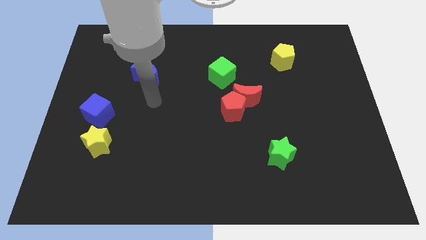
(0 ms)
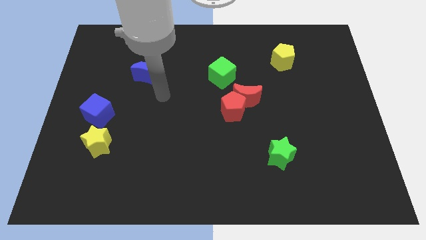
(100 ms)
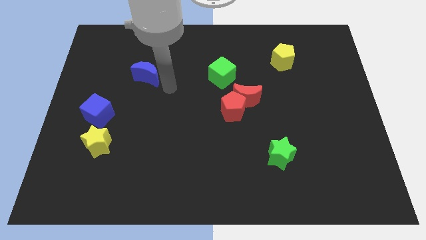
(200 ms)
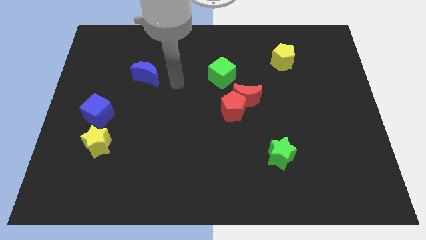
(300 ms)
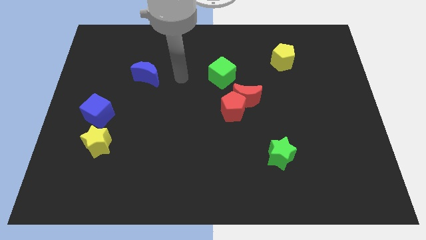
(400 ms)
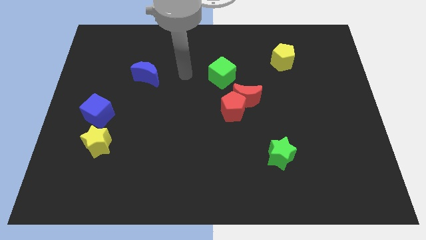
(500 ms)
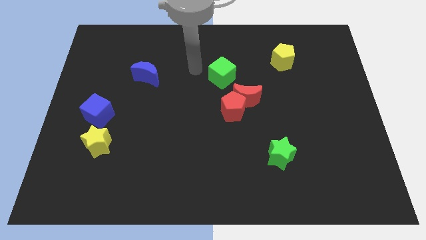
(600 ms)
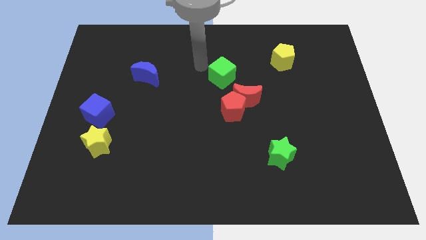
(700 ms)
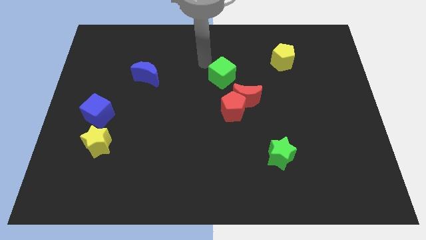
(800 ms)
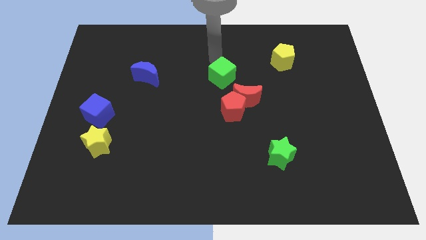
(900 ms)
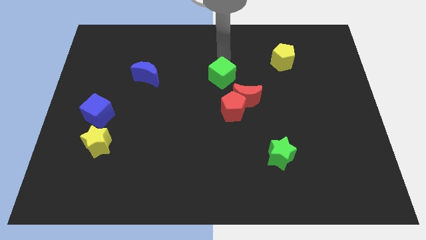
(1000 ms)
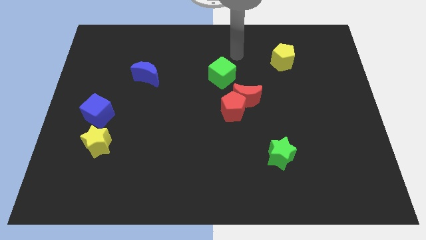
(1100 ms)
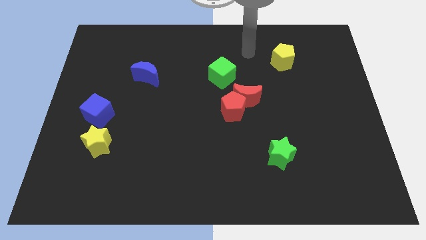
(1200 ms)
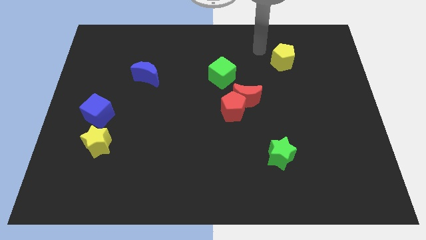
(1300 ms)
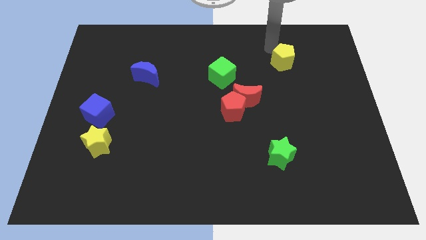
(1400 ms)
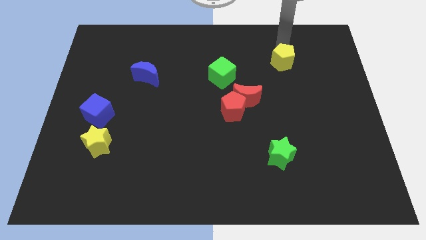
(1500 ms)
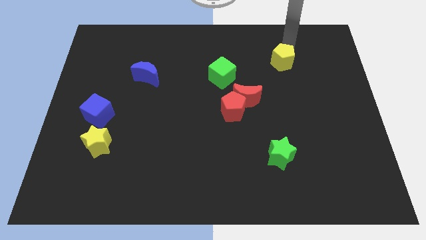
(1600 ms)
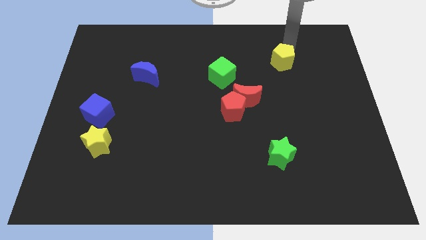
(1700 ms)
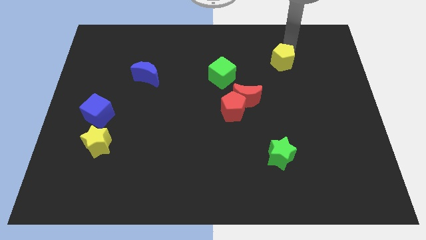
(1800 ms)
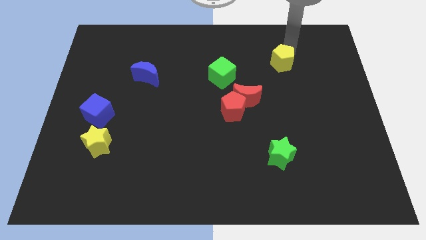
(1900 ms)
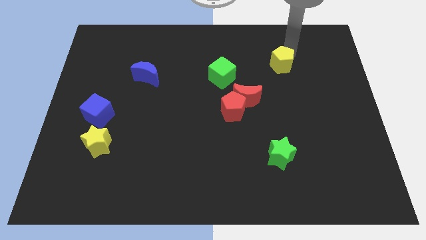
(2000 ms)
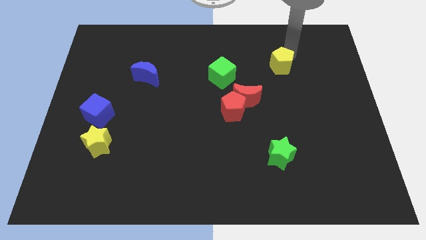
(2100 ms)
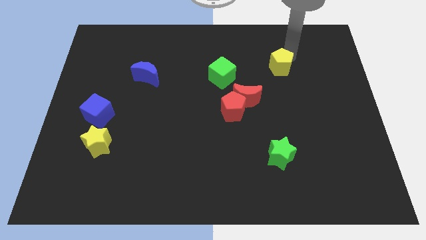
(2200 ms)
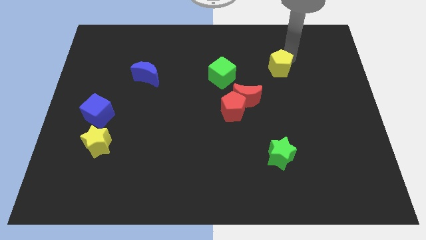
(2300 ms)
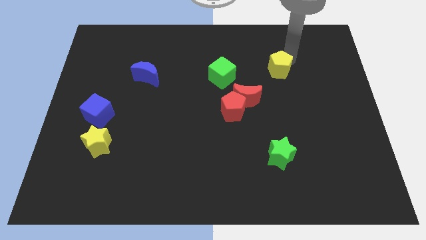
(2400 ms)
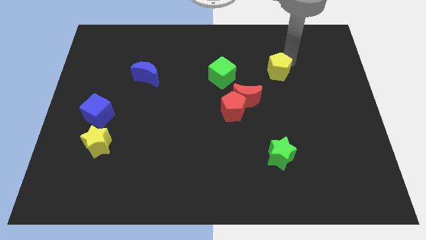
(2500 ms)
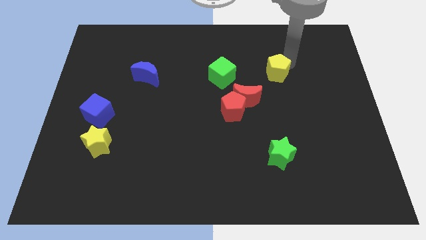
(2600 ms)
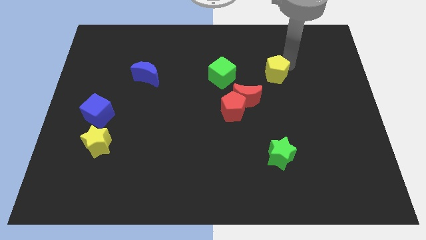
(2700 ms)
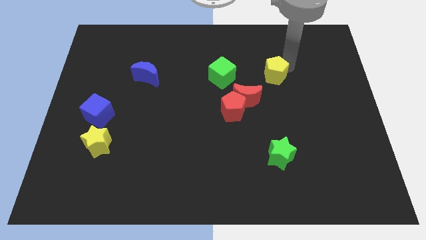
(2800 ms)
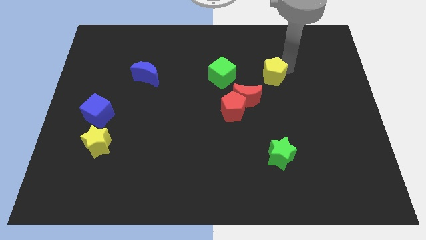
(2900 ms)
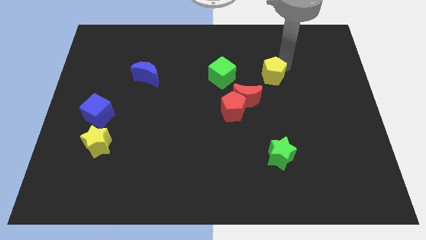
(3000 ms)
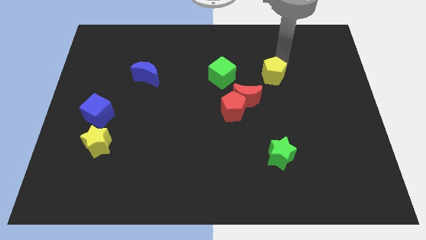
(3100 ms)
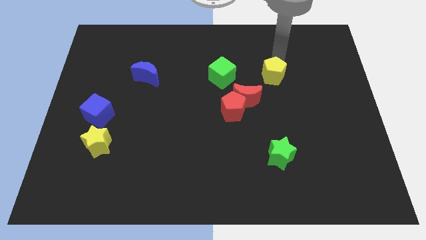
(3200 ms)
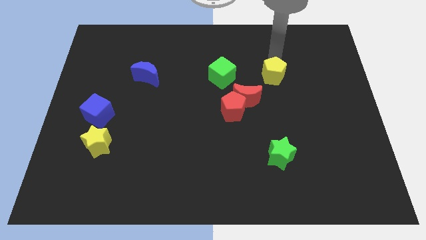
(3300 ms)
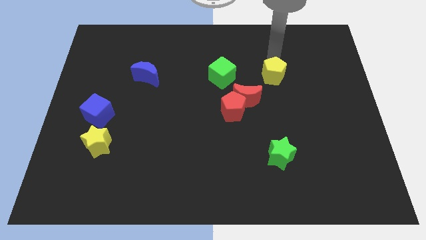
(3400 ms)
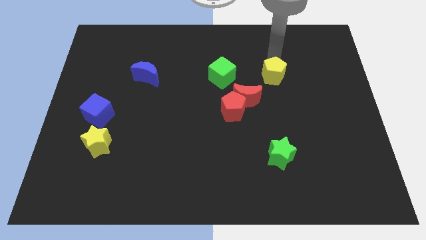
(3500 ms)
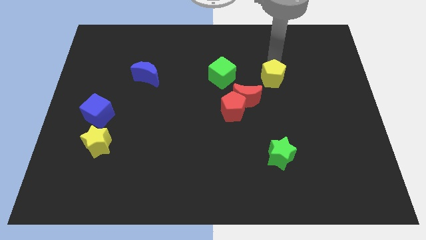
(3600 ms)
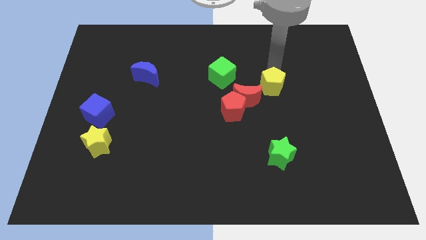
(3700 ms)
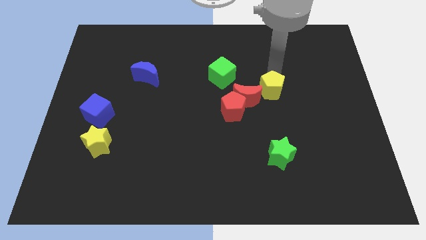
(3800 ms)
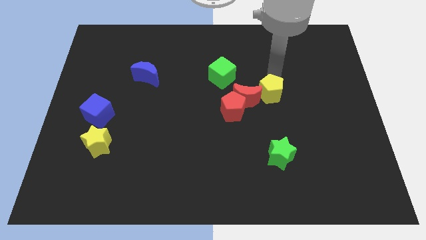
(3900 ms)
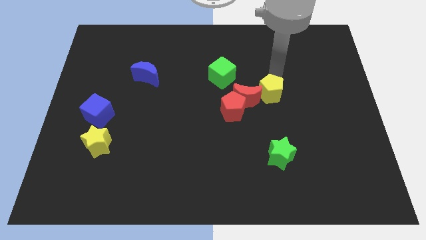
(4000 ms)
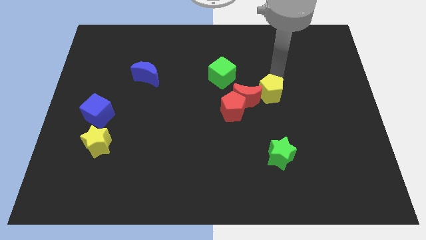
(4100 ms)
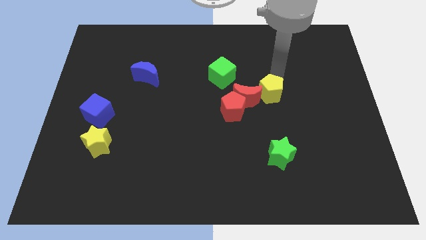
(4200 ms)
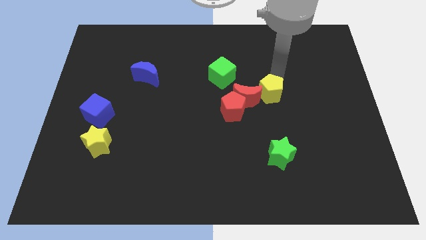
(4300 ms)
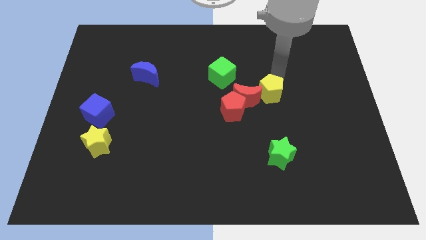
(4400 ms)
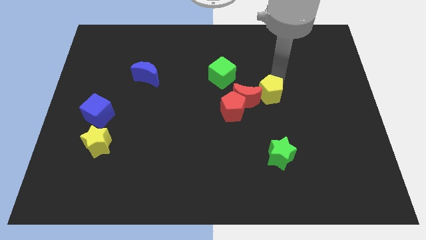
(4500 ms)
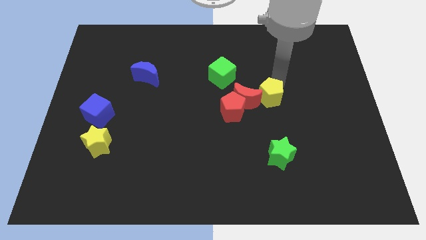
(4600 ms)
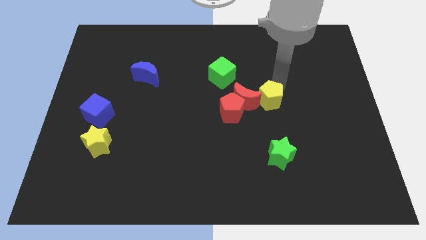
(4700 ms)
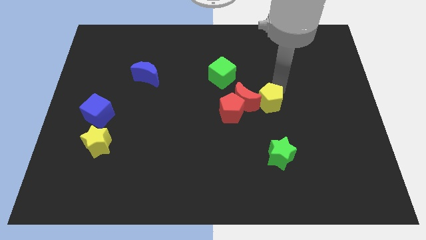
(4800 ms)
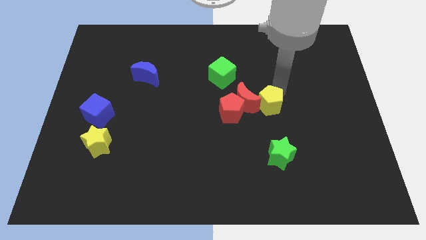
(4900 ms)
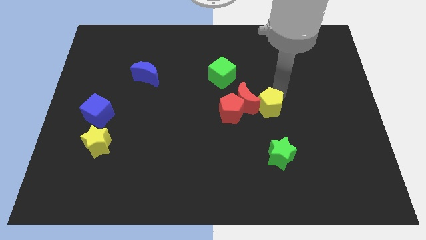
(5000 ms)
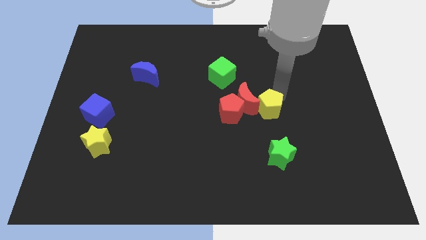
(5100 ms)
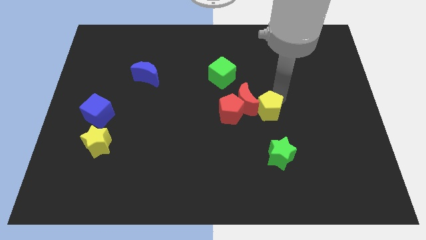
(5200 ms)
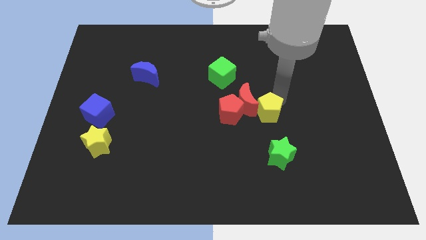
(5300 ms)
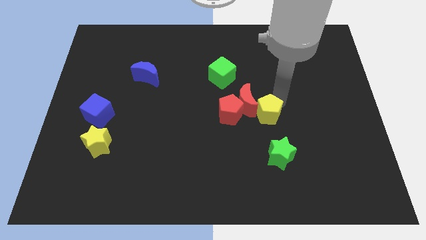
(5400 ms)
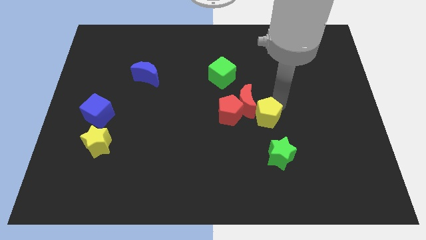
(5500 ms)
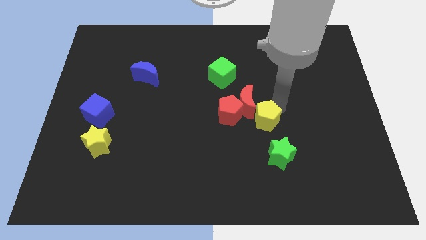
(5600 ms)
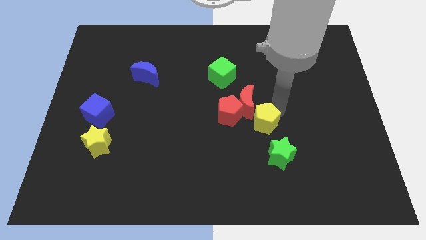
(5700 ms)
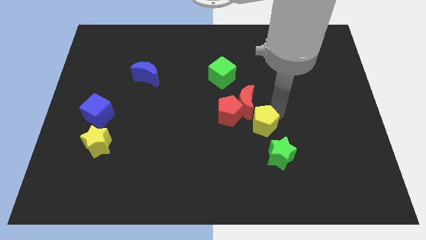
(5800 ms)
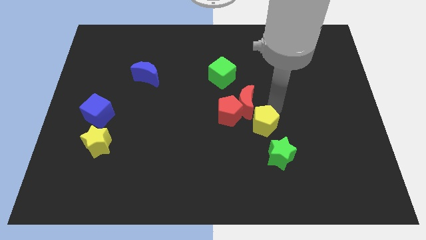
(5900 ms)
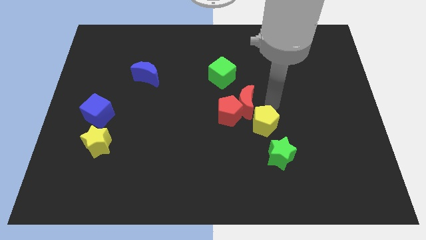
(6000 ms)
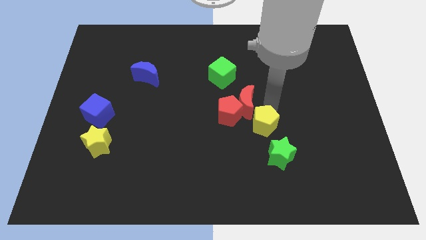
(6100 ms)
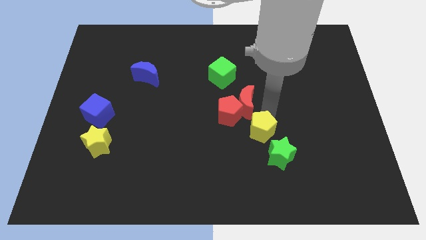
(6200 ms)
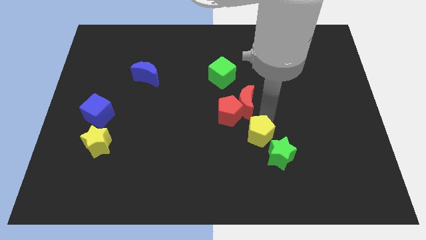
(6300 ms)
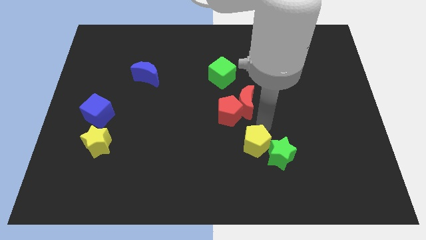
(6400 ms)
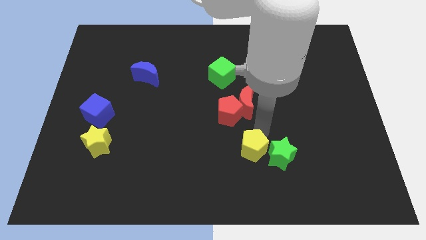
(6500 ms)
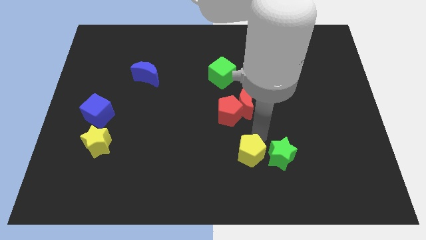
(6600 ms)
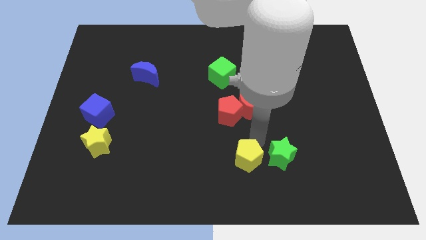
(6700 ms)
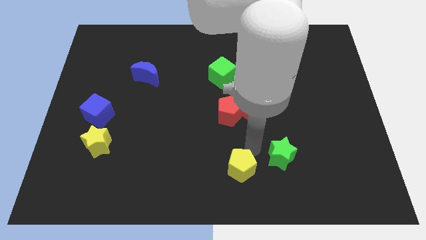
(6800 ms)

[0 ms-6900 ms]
move the yellow pentagon to the bottom side
